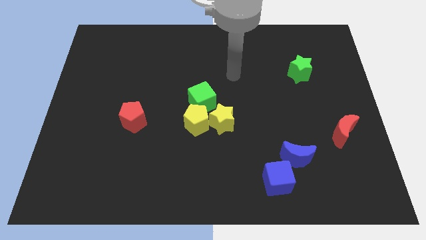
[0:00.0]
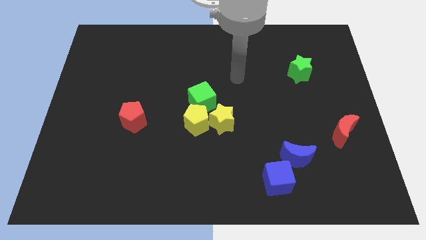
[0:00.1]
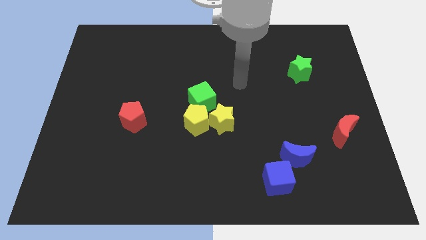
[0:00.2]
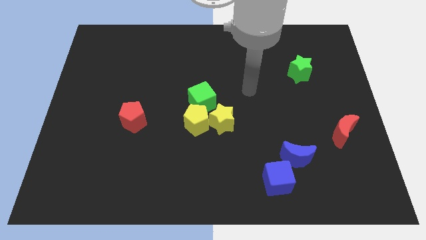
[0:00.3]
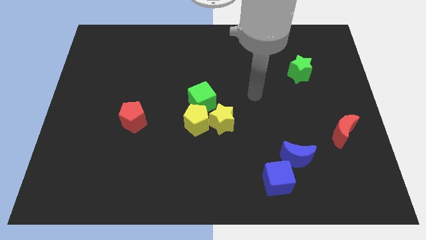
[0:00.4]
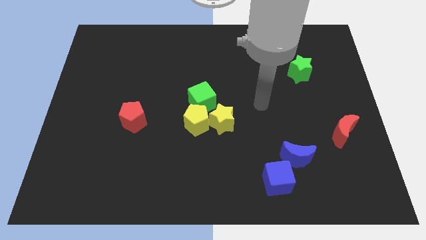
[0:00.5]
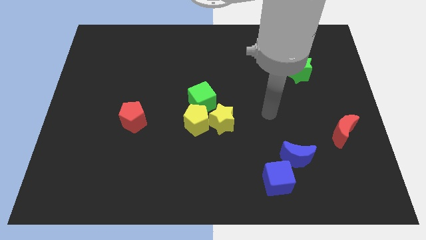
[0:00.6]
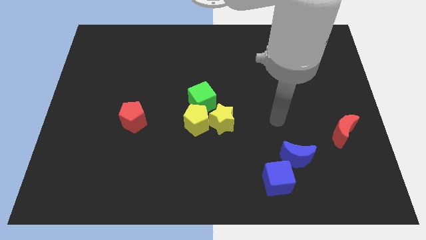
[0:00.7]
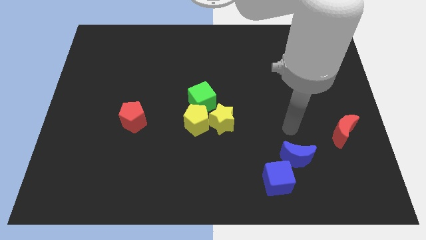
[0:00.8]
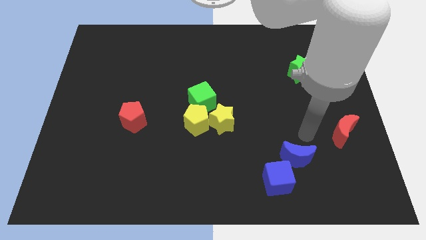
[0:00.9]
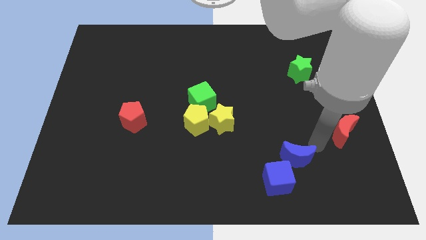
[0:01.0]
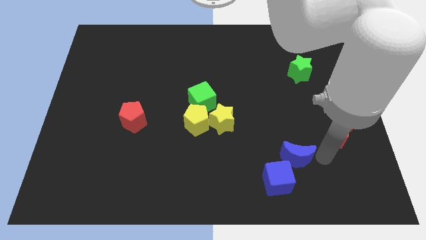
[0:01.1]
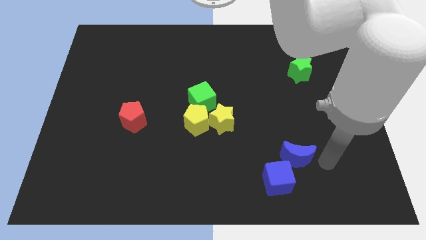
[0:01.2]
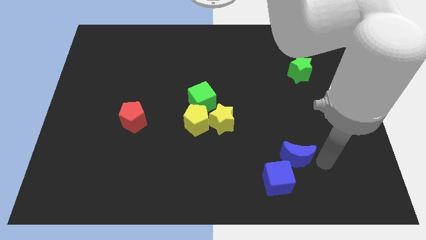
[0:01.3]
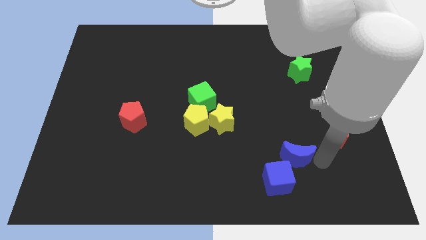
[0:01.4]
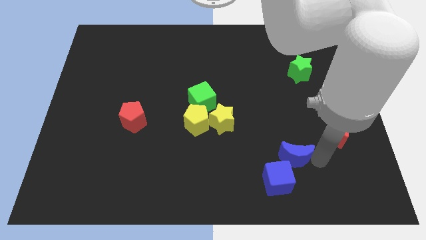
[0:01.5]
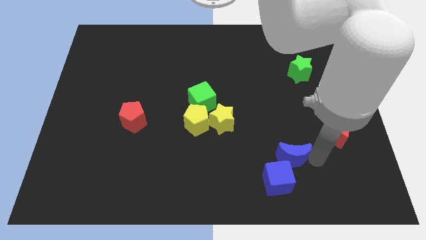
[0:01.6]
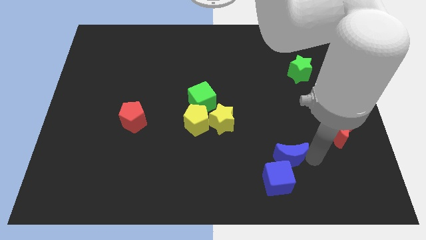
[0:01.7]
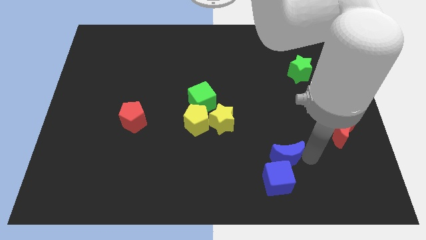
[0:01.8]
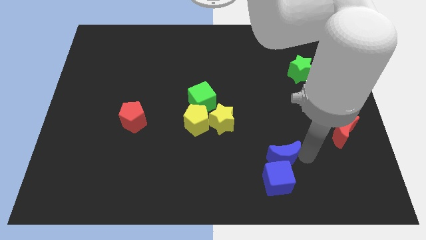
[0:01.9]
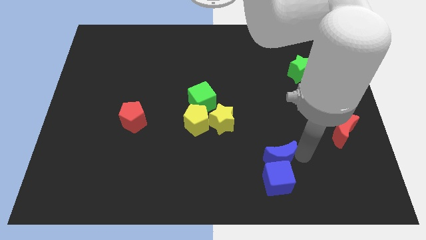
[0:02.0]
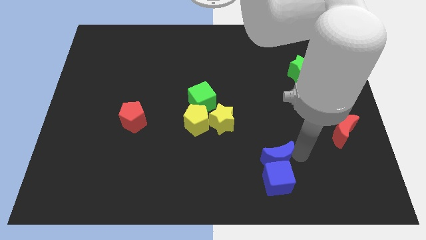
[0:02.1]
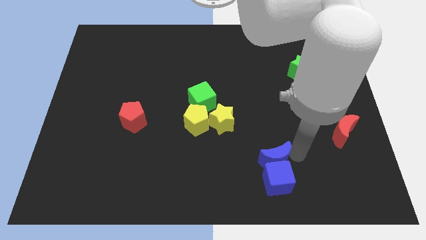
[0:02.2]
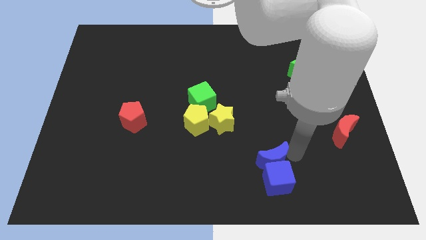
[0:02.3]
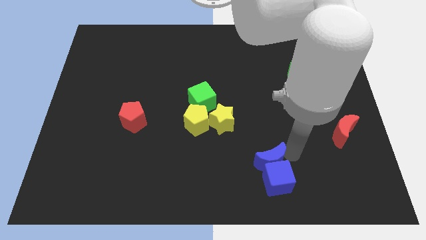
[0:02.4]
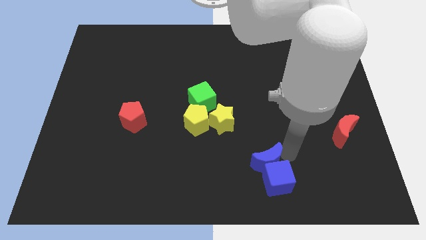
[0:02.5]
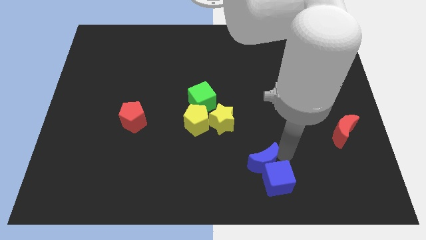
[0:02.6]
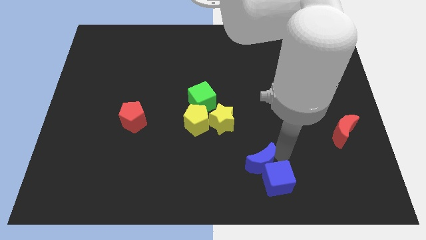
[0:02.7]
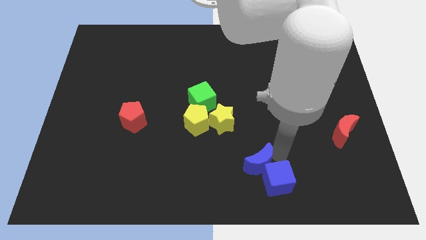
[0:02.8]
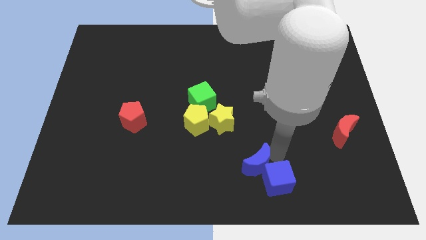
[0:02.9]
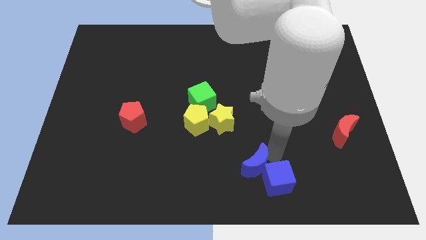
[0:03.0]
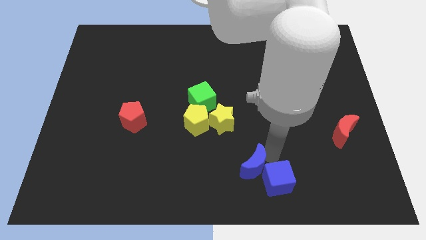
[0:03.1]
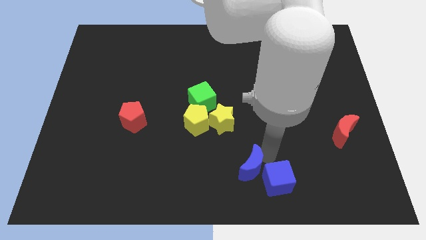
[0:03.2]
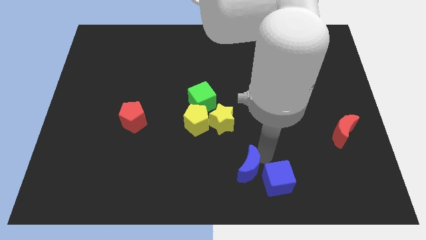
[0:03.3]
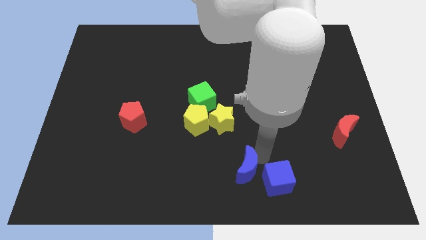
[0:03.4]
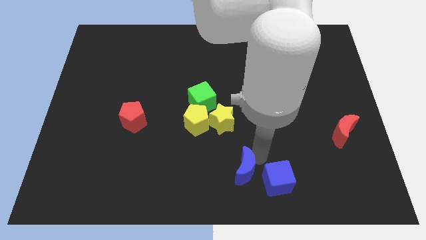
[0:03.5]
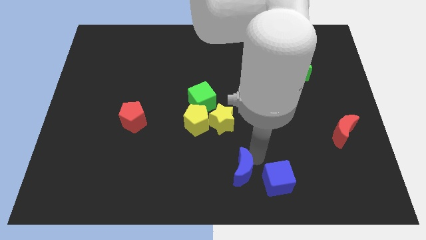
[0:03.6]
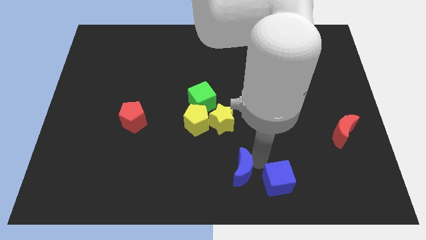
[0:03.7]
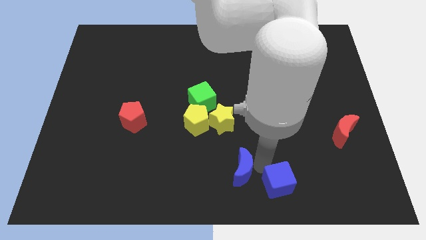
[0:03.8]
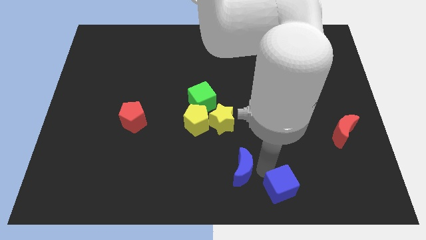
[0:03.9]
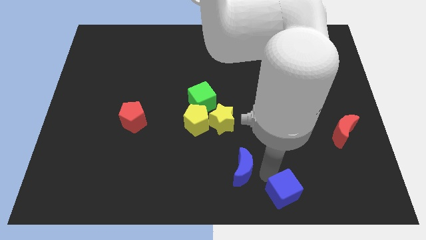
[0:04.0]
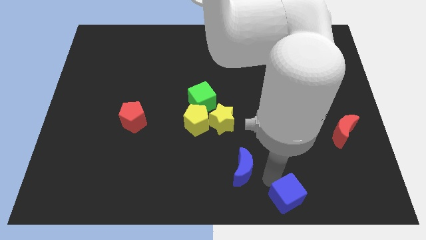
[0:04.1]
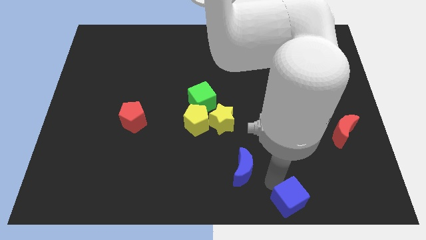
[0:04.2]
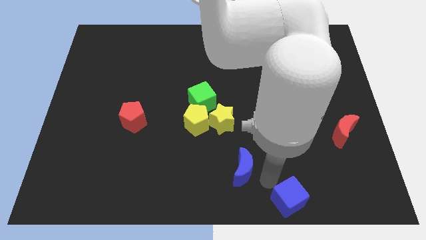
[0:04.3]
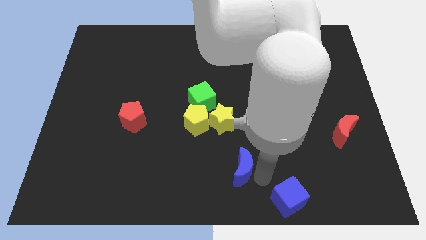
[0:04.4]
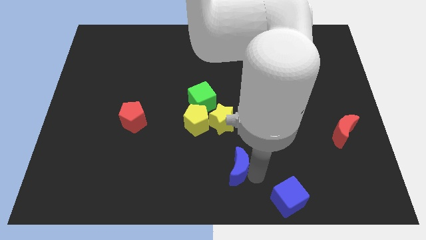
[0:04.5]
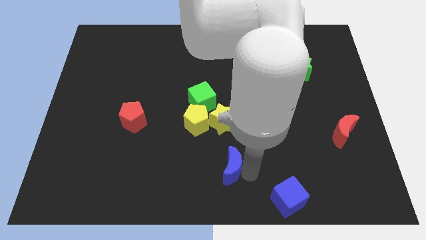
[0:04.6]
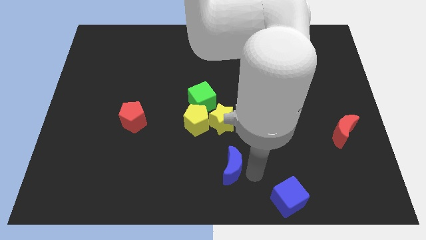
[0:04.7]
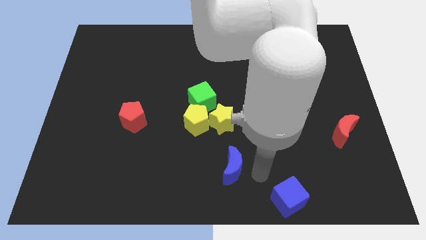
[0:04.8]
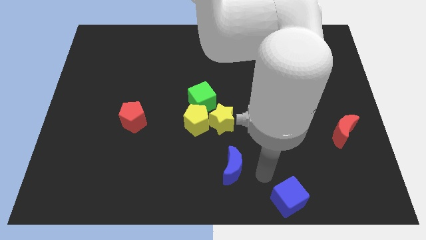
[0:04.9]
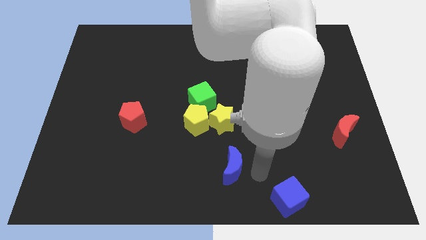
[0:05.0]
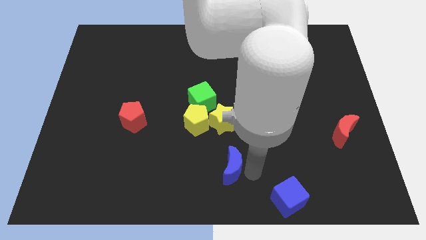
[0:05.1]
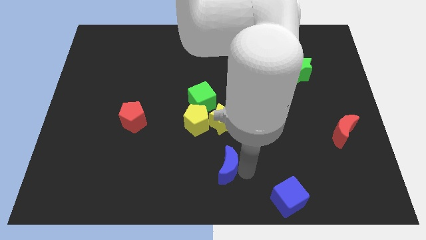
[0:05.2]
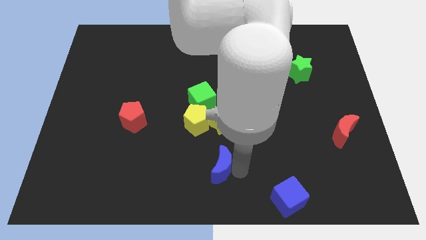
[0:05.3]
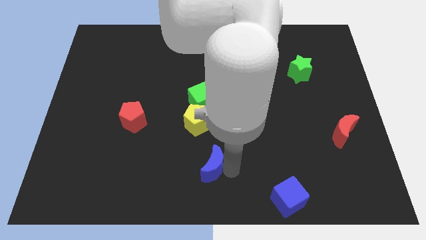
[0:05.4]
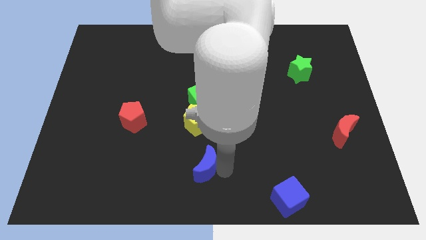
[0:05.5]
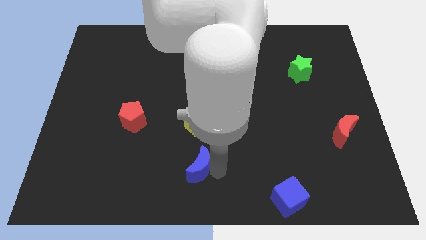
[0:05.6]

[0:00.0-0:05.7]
slide the blue moon left

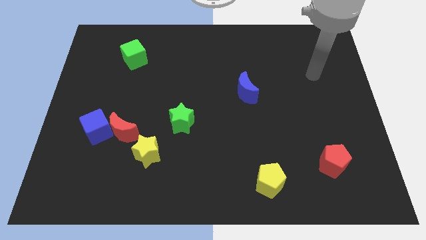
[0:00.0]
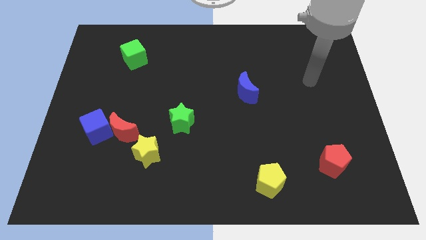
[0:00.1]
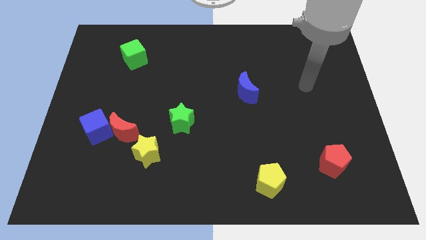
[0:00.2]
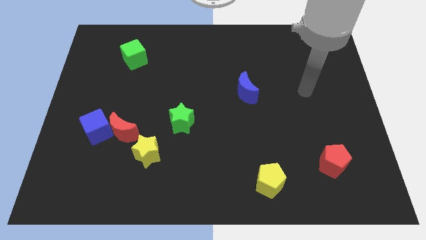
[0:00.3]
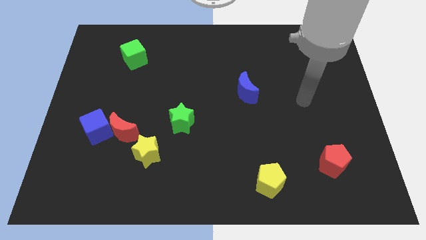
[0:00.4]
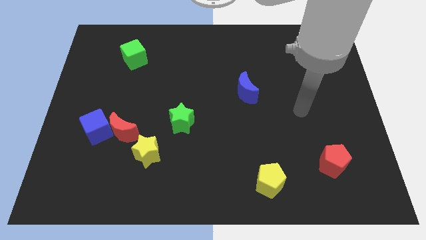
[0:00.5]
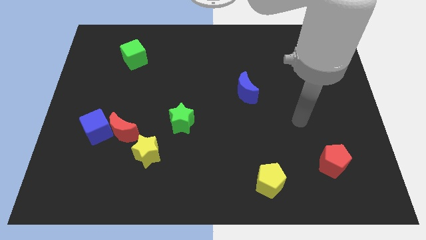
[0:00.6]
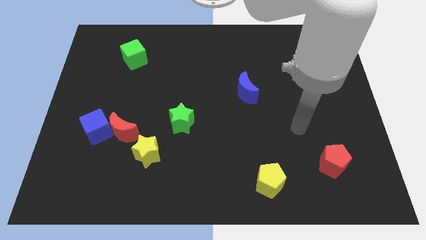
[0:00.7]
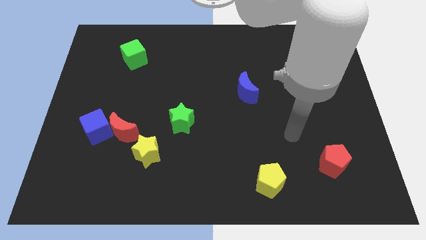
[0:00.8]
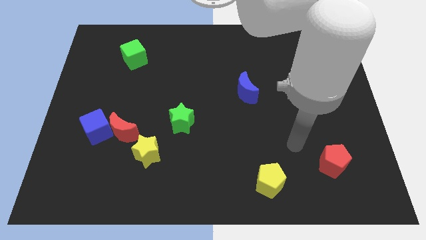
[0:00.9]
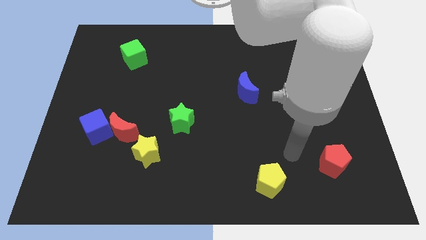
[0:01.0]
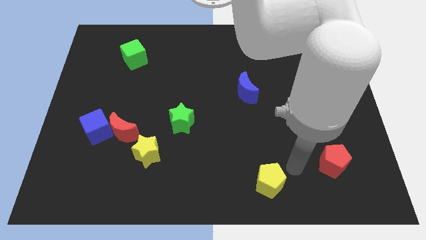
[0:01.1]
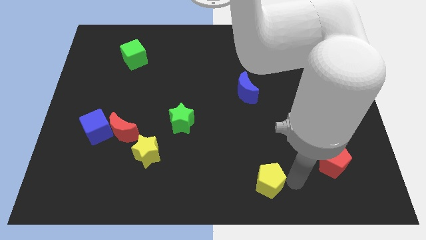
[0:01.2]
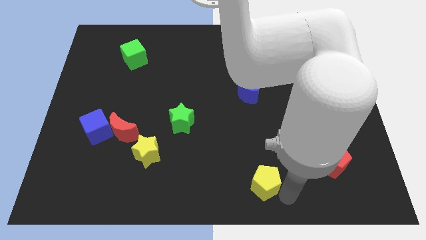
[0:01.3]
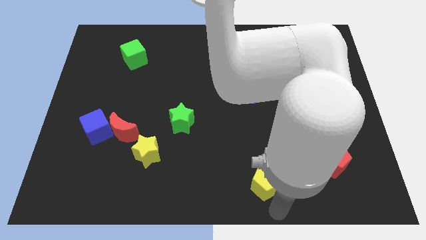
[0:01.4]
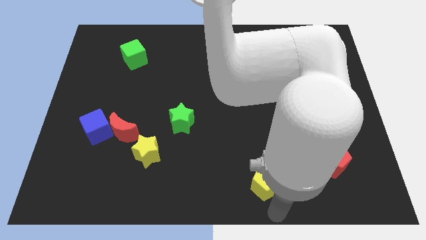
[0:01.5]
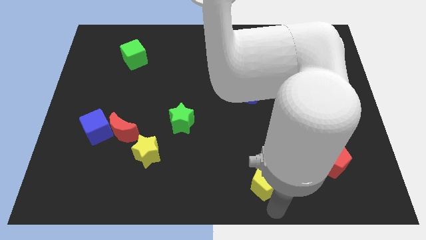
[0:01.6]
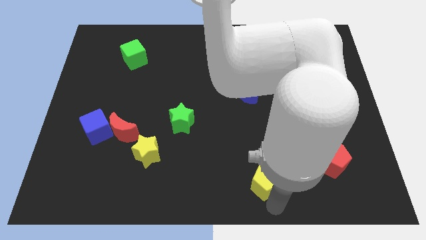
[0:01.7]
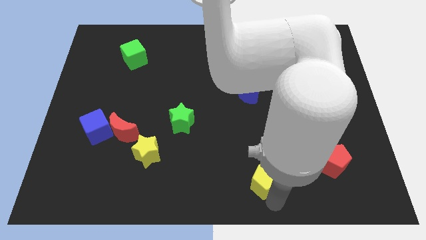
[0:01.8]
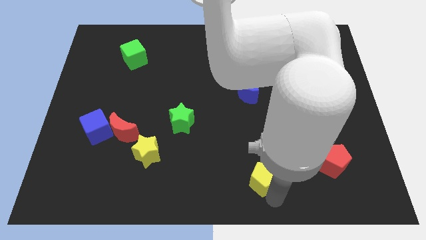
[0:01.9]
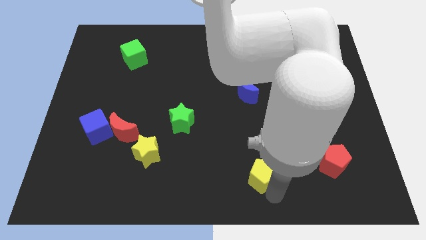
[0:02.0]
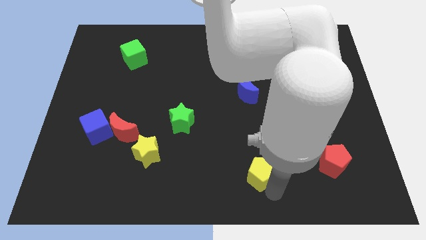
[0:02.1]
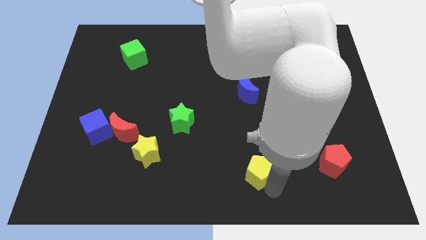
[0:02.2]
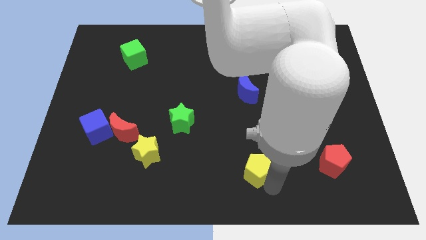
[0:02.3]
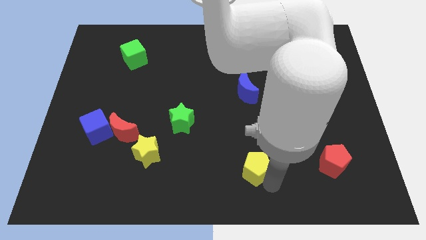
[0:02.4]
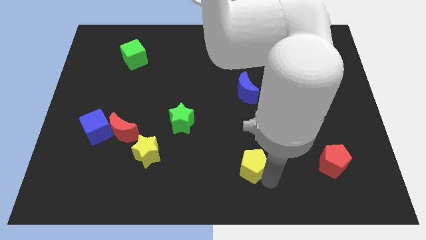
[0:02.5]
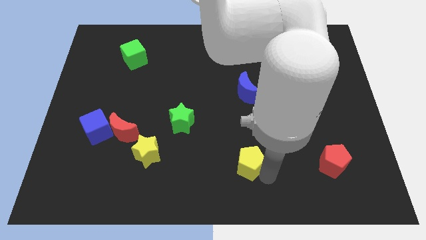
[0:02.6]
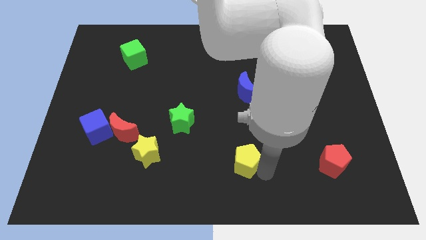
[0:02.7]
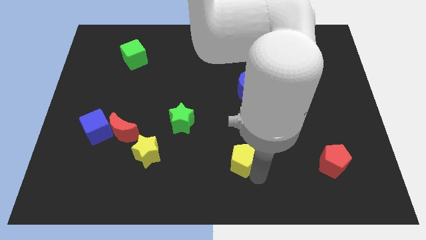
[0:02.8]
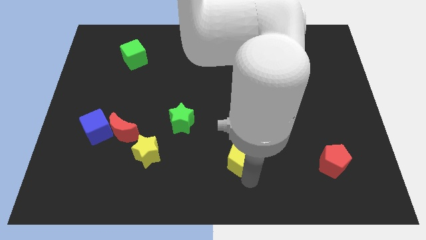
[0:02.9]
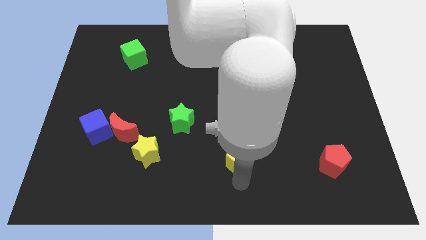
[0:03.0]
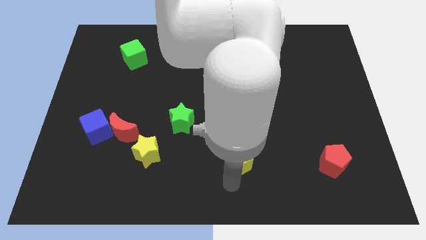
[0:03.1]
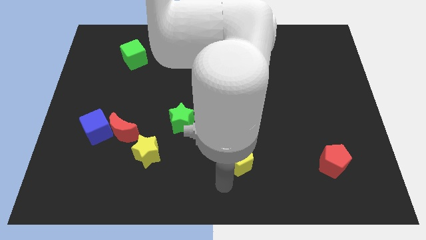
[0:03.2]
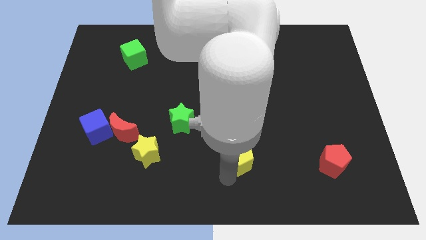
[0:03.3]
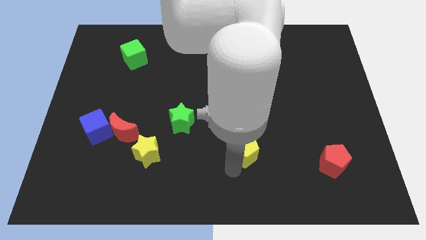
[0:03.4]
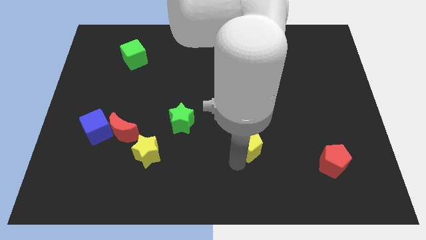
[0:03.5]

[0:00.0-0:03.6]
slightly slide the yellow pentagon up
